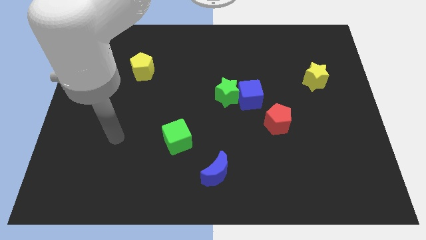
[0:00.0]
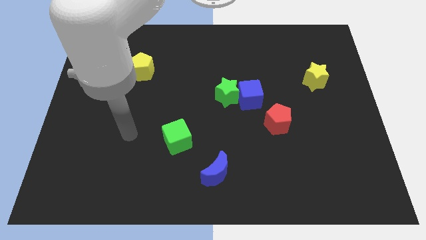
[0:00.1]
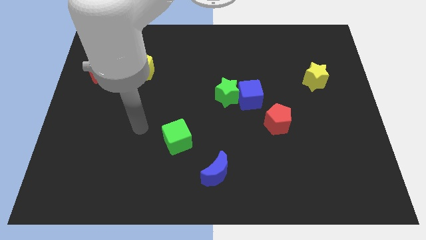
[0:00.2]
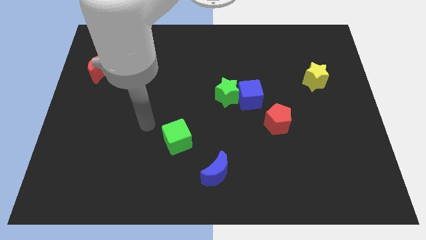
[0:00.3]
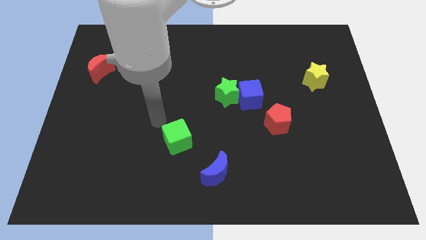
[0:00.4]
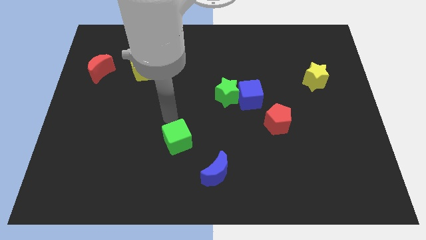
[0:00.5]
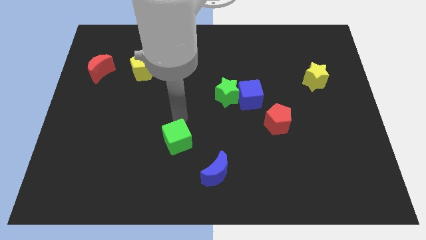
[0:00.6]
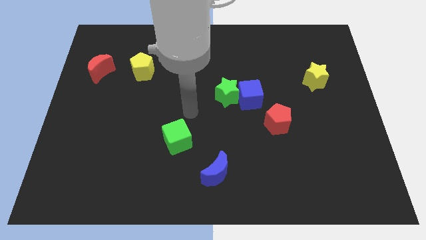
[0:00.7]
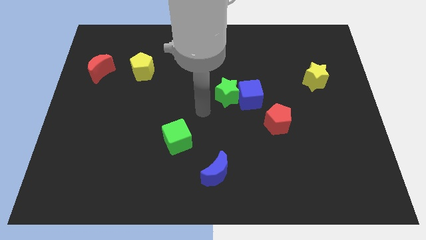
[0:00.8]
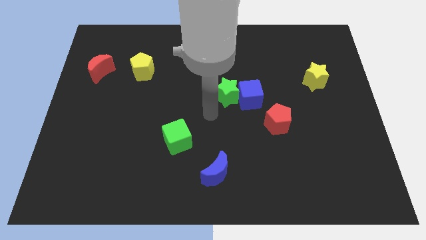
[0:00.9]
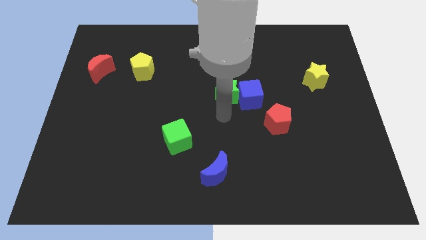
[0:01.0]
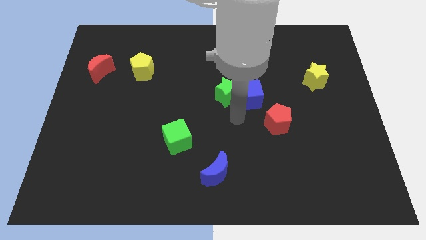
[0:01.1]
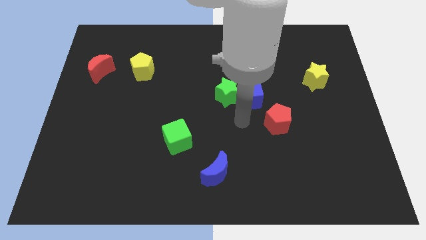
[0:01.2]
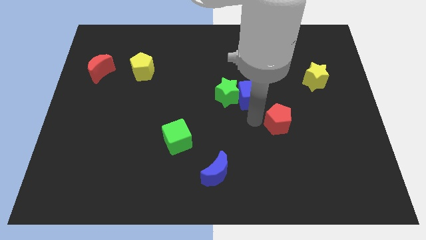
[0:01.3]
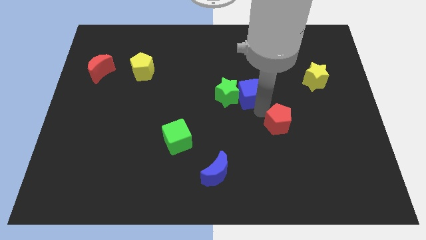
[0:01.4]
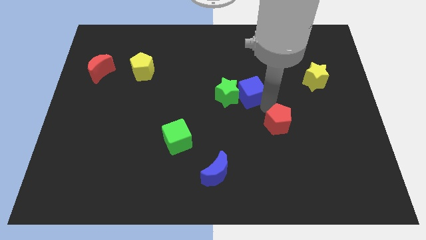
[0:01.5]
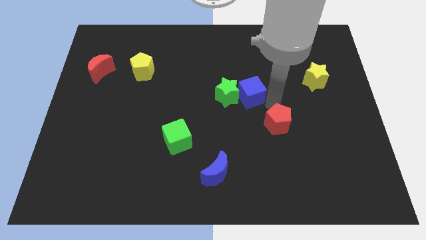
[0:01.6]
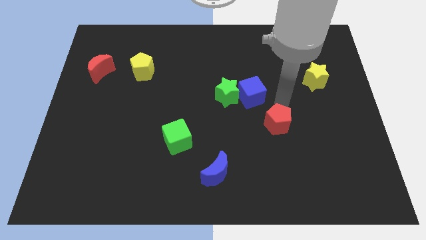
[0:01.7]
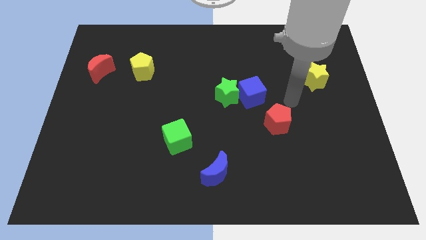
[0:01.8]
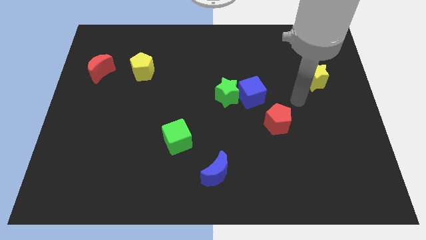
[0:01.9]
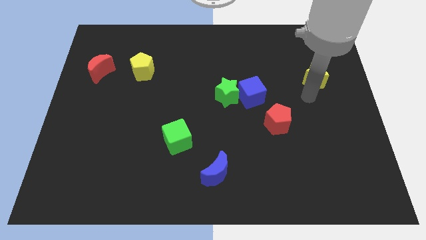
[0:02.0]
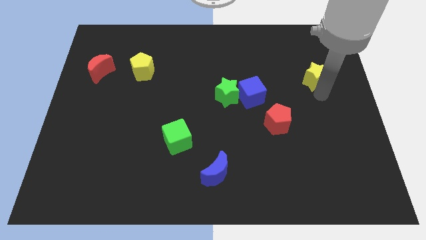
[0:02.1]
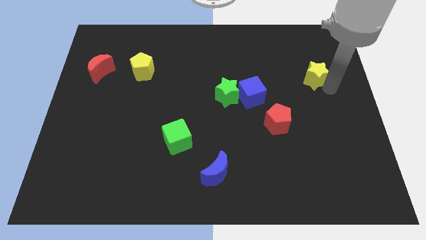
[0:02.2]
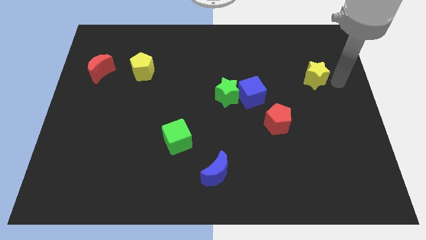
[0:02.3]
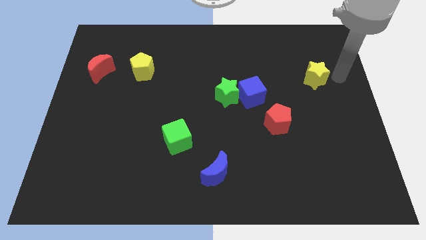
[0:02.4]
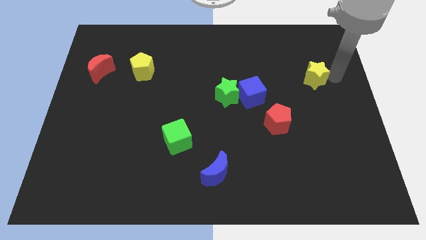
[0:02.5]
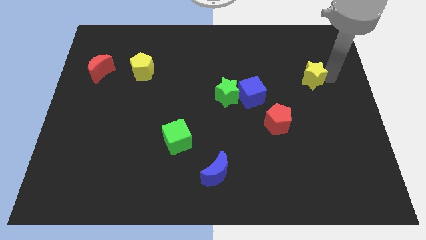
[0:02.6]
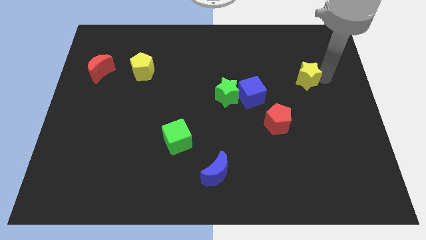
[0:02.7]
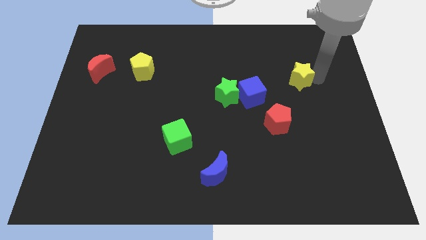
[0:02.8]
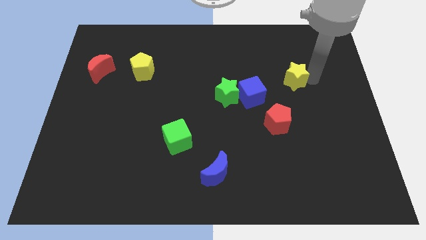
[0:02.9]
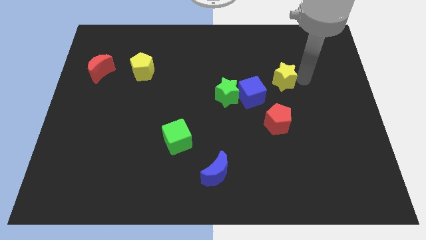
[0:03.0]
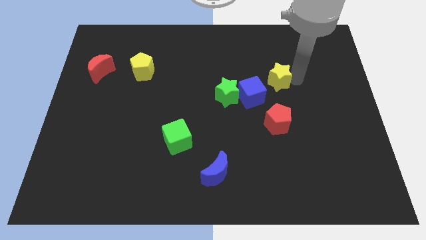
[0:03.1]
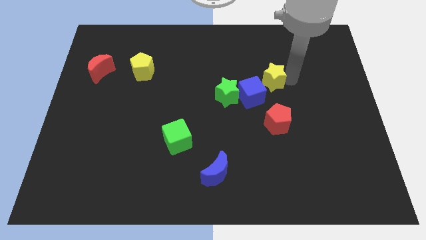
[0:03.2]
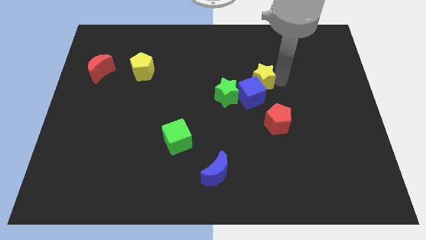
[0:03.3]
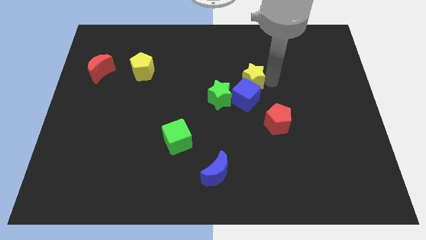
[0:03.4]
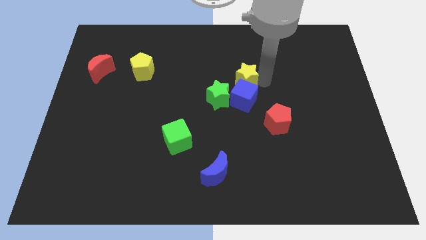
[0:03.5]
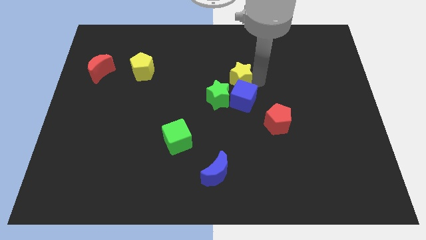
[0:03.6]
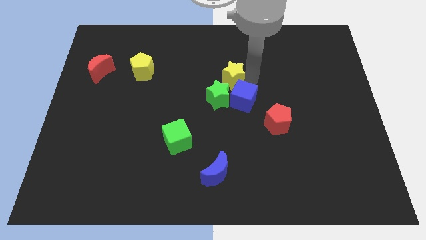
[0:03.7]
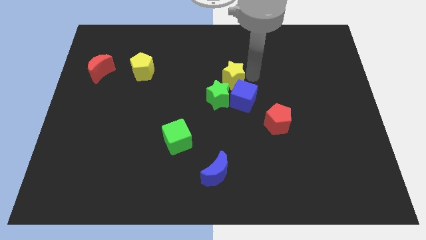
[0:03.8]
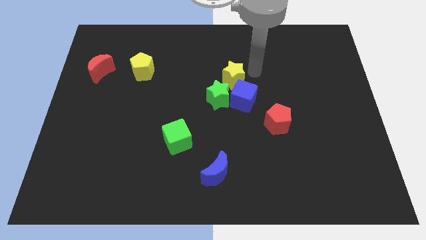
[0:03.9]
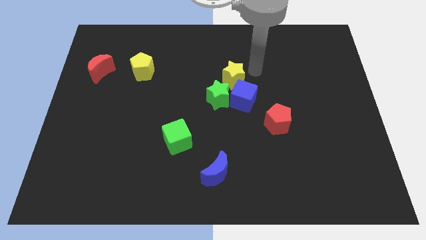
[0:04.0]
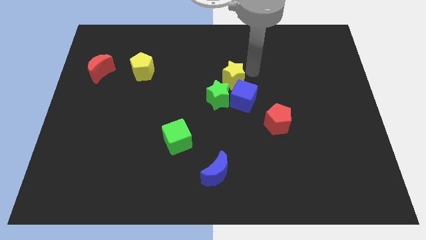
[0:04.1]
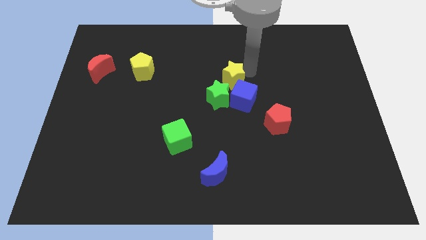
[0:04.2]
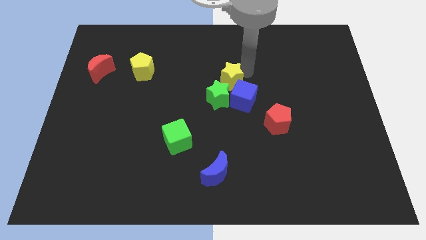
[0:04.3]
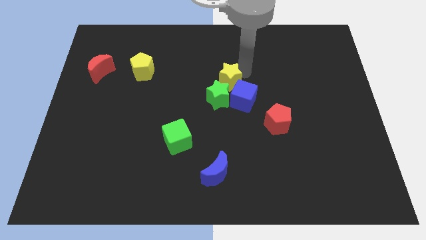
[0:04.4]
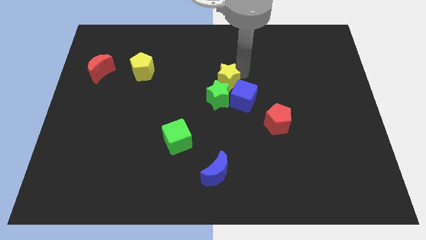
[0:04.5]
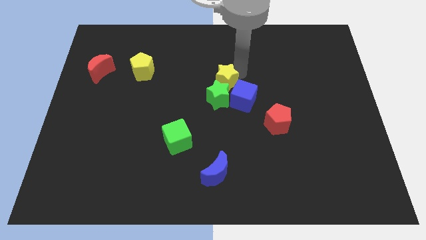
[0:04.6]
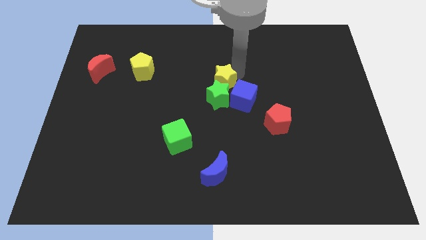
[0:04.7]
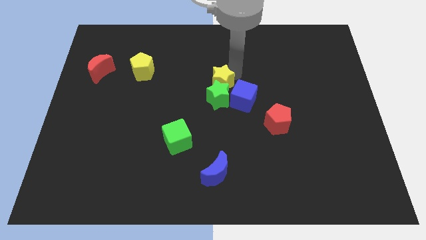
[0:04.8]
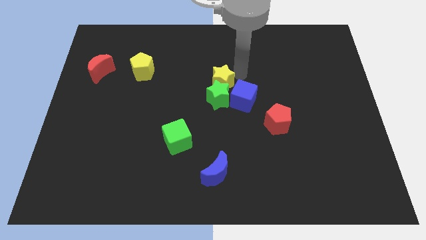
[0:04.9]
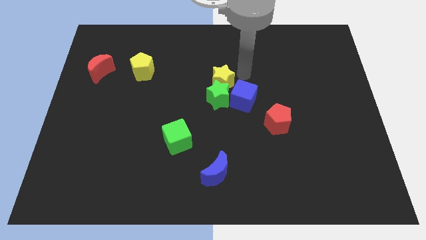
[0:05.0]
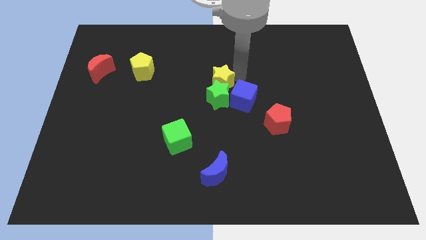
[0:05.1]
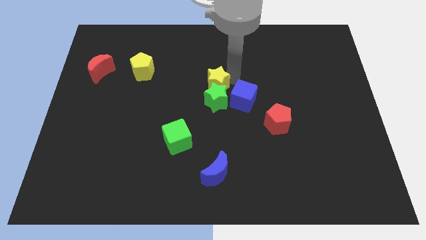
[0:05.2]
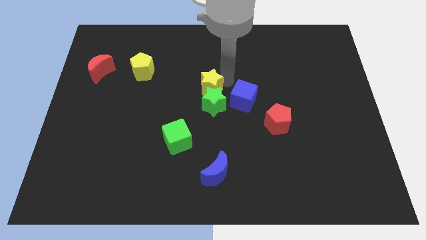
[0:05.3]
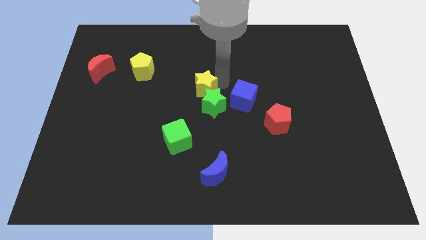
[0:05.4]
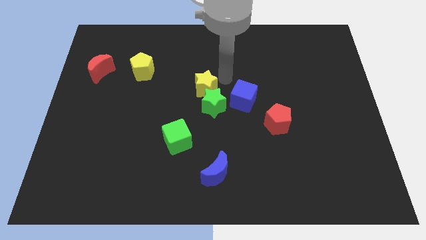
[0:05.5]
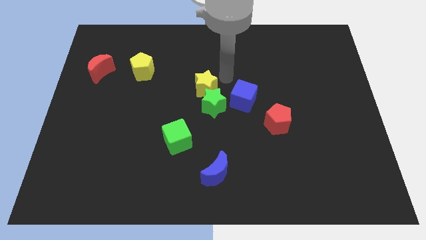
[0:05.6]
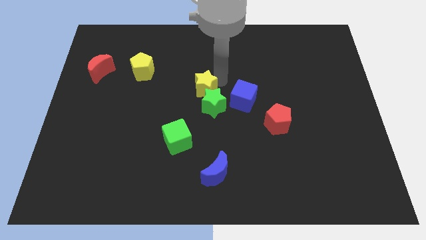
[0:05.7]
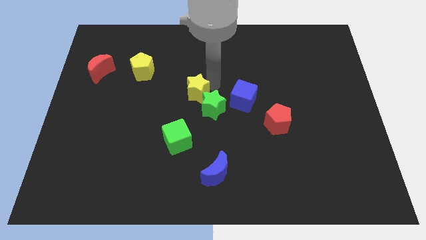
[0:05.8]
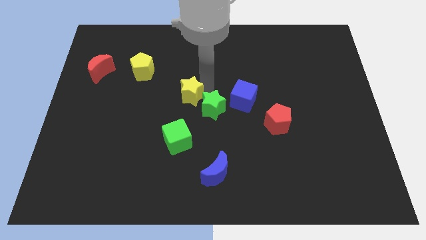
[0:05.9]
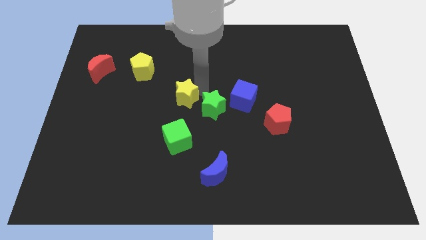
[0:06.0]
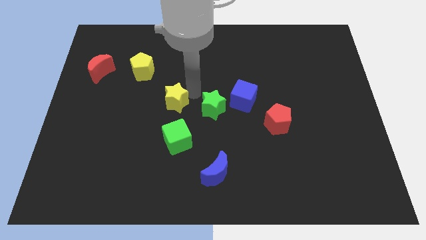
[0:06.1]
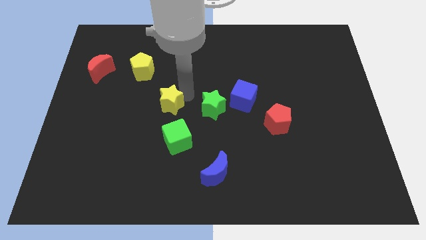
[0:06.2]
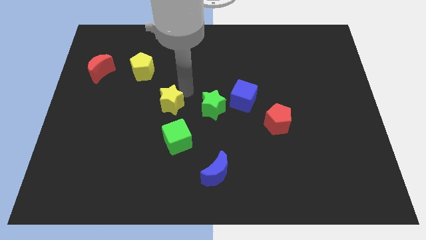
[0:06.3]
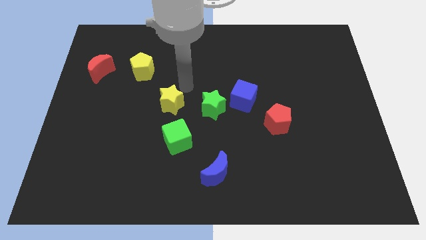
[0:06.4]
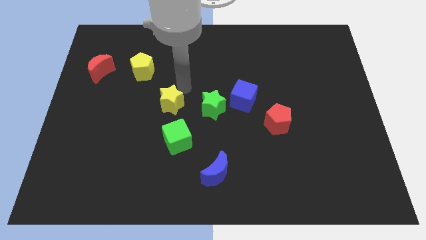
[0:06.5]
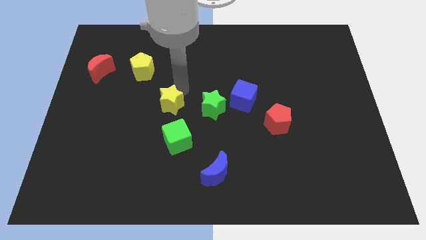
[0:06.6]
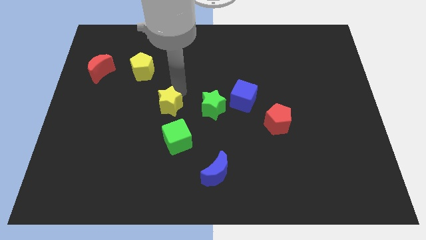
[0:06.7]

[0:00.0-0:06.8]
put the yellow star diagonally up and to the left of the green cube

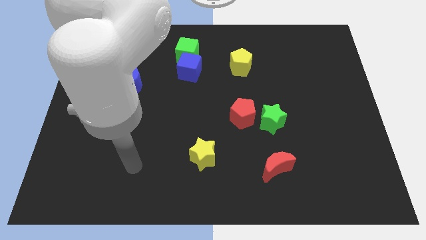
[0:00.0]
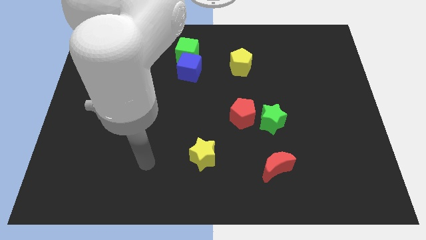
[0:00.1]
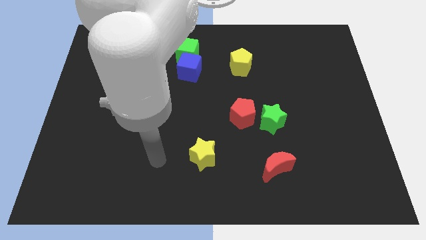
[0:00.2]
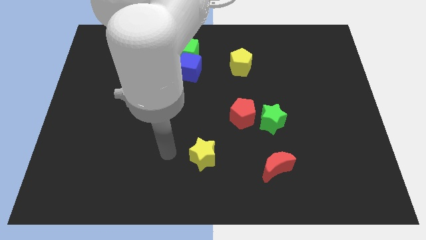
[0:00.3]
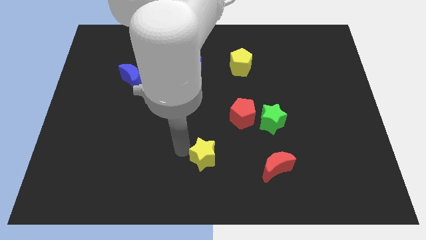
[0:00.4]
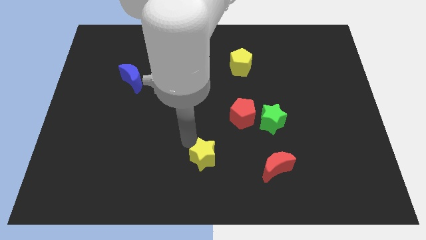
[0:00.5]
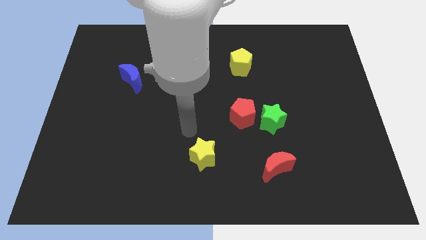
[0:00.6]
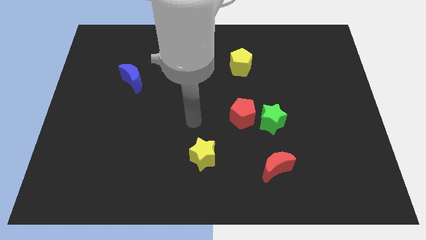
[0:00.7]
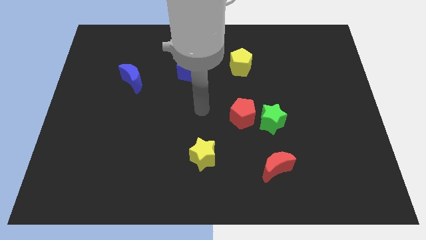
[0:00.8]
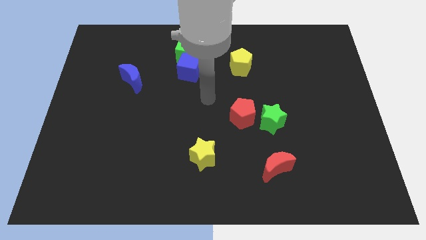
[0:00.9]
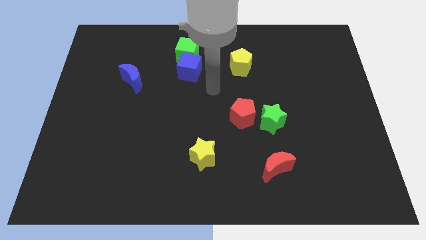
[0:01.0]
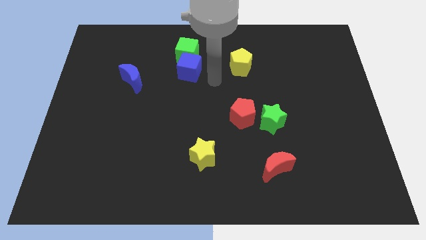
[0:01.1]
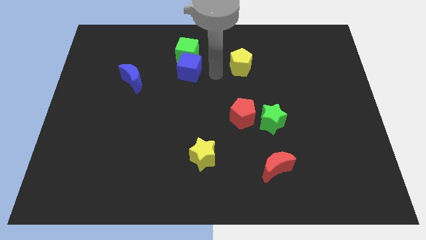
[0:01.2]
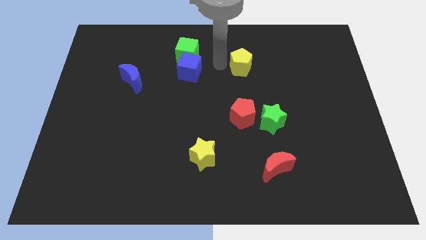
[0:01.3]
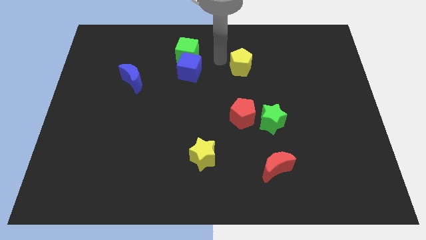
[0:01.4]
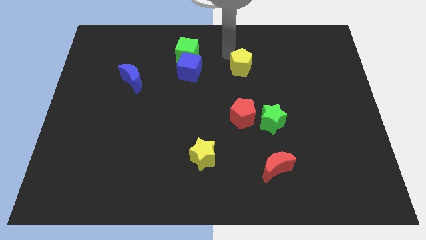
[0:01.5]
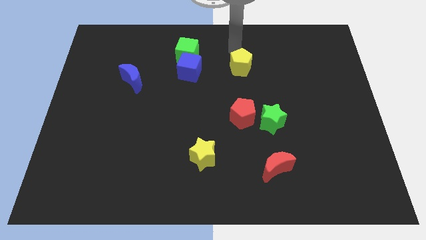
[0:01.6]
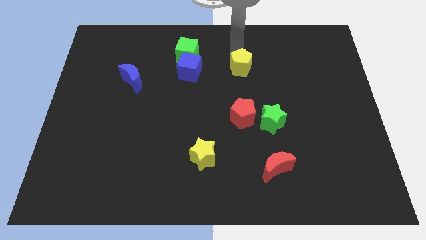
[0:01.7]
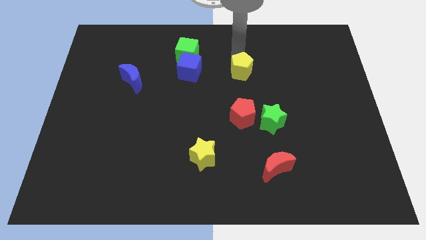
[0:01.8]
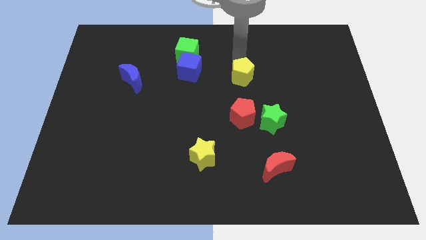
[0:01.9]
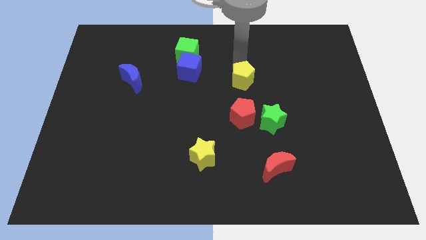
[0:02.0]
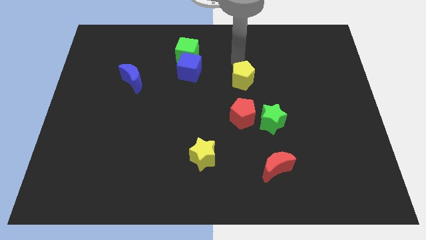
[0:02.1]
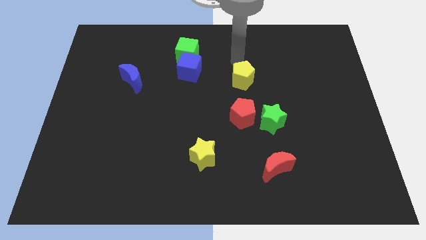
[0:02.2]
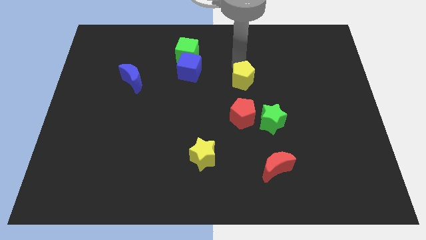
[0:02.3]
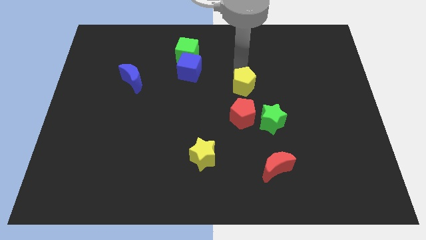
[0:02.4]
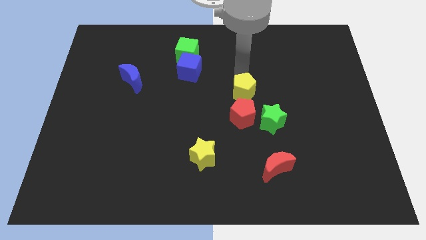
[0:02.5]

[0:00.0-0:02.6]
push the yellow pentagon to the top left side of the green star
